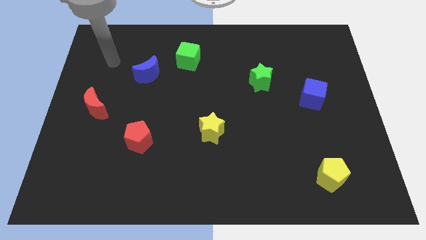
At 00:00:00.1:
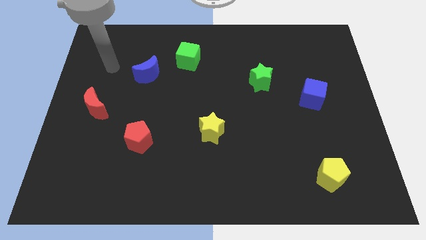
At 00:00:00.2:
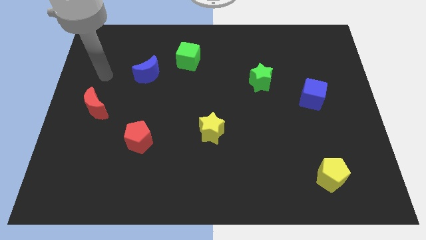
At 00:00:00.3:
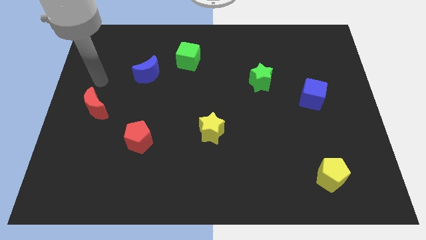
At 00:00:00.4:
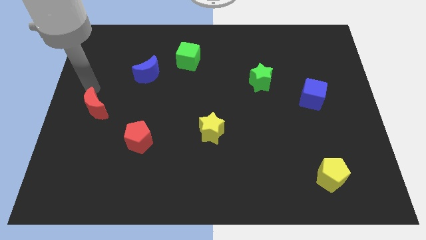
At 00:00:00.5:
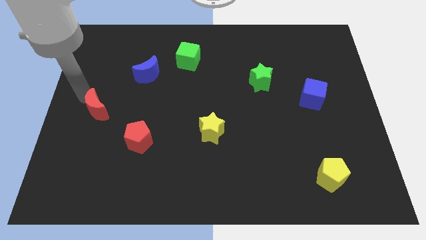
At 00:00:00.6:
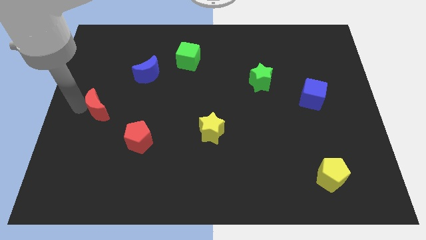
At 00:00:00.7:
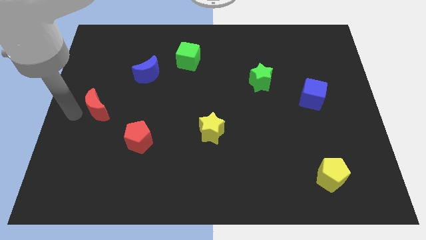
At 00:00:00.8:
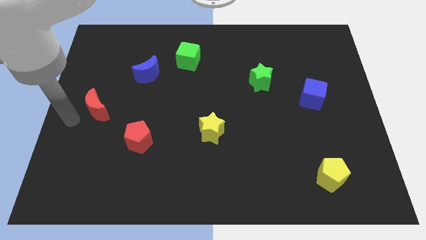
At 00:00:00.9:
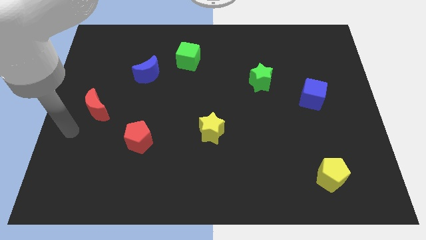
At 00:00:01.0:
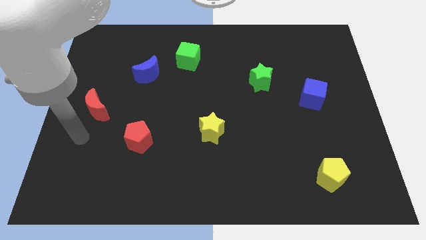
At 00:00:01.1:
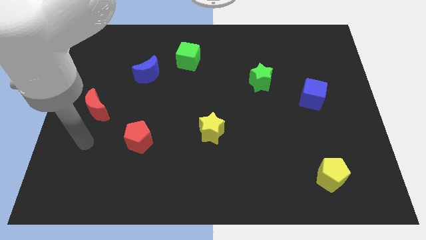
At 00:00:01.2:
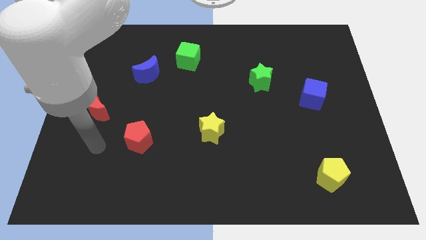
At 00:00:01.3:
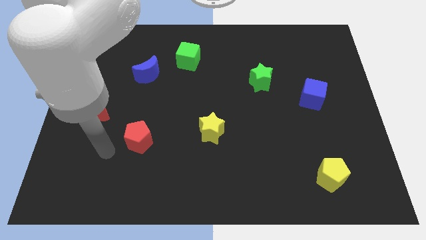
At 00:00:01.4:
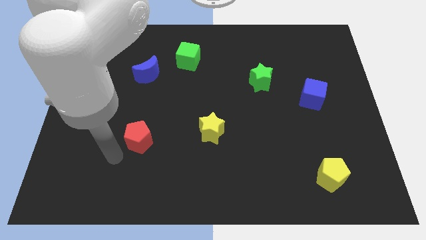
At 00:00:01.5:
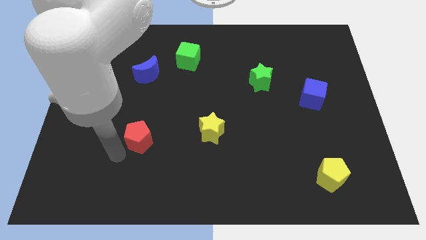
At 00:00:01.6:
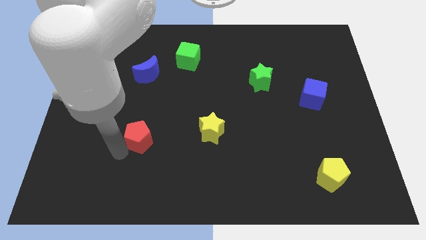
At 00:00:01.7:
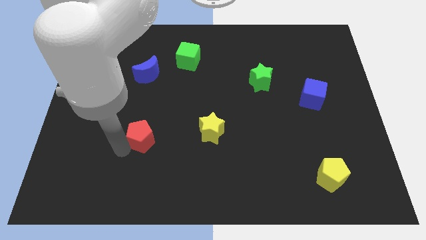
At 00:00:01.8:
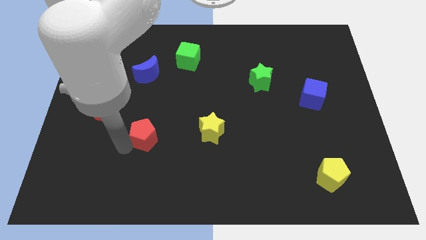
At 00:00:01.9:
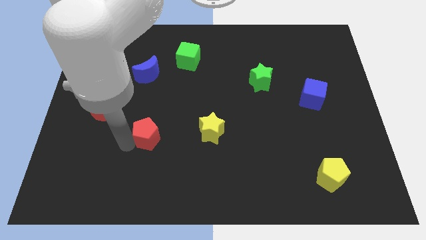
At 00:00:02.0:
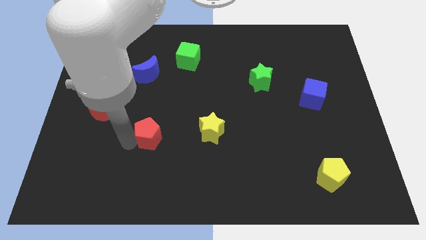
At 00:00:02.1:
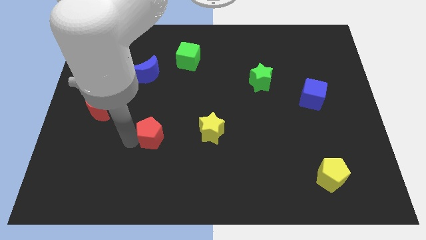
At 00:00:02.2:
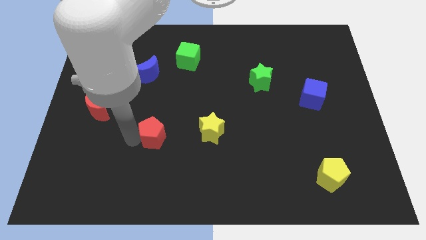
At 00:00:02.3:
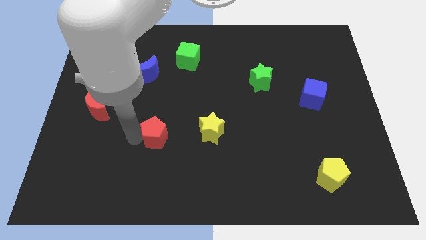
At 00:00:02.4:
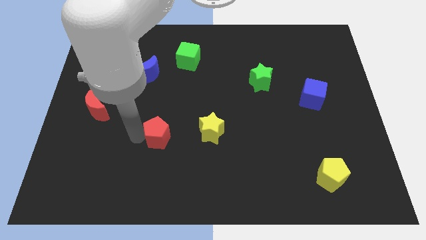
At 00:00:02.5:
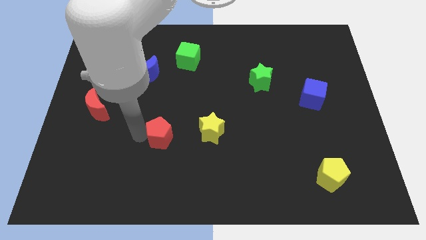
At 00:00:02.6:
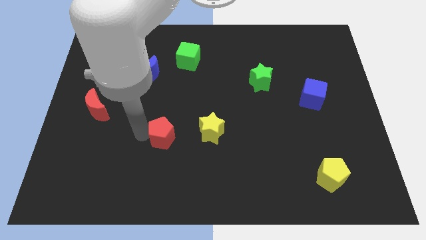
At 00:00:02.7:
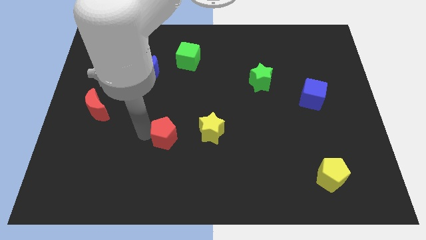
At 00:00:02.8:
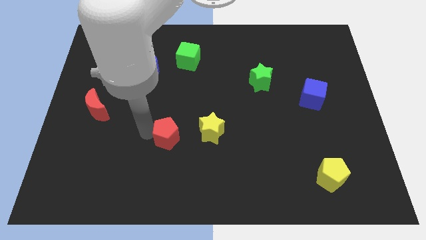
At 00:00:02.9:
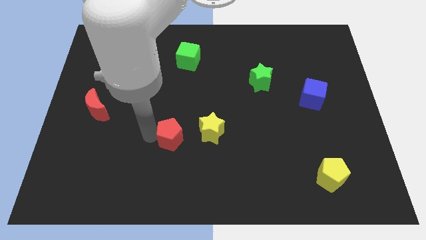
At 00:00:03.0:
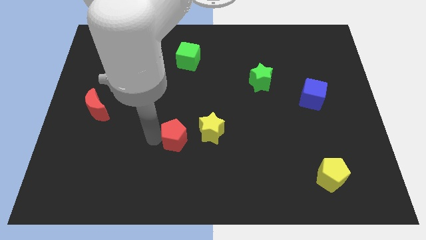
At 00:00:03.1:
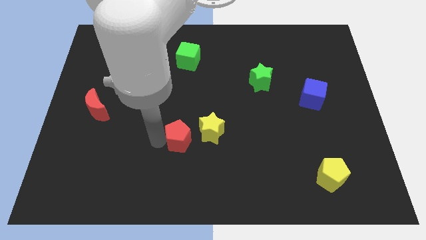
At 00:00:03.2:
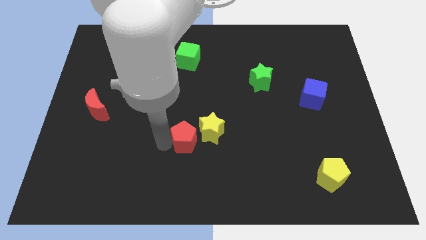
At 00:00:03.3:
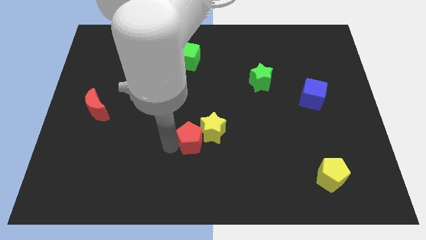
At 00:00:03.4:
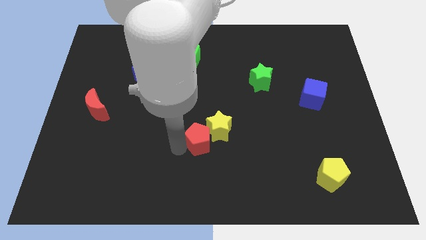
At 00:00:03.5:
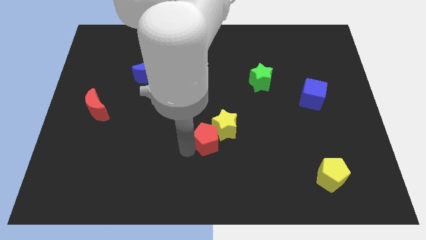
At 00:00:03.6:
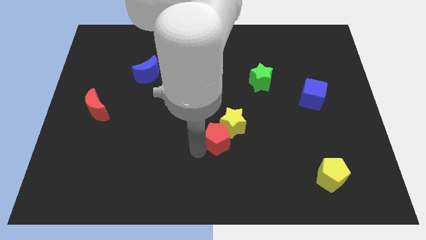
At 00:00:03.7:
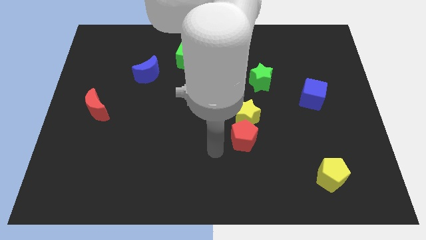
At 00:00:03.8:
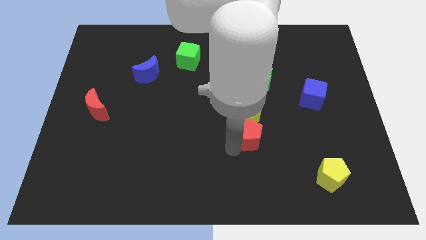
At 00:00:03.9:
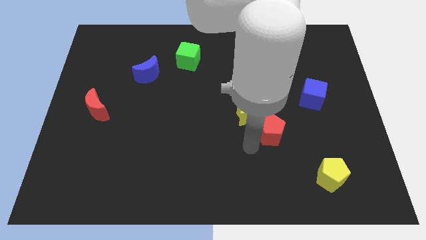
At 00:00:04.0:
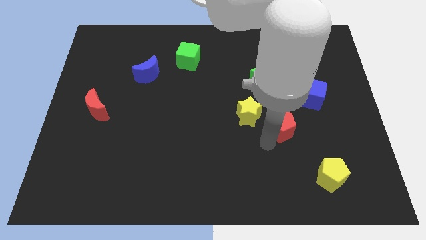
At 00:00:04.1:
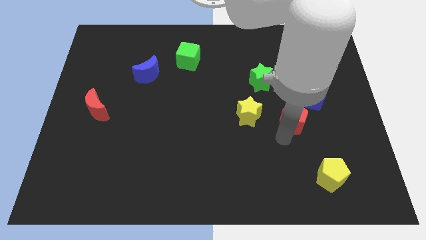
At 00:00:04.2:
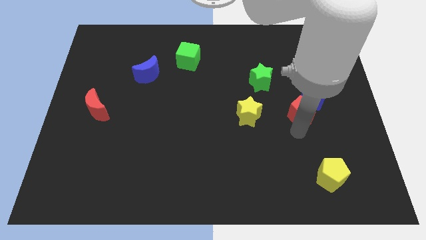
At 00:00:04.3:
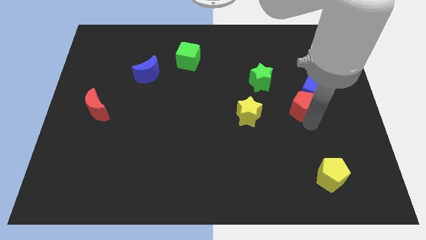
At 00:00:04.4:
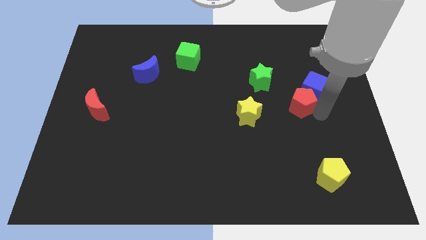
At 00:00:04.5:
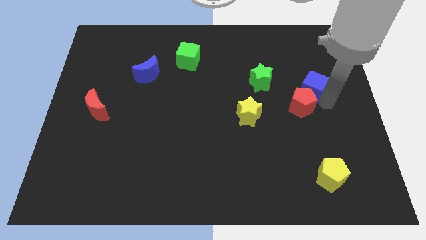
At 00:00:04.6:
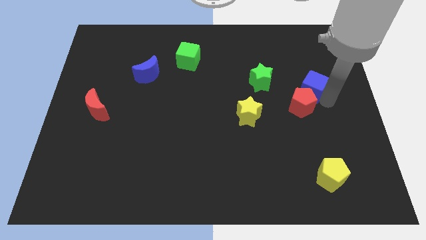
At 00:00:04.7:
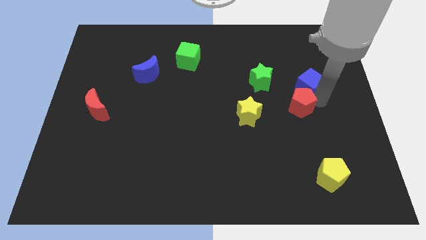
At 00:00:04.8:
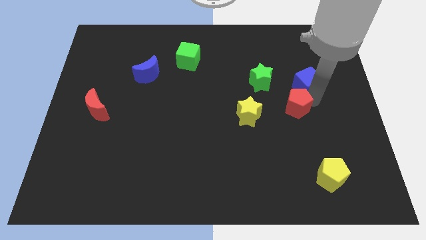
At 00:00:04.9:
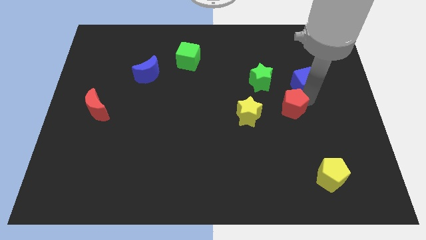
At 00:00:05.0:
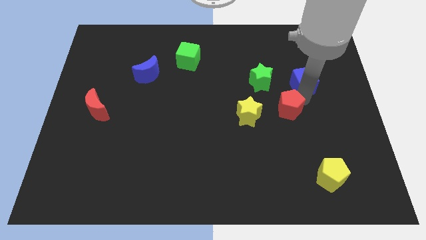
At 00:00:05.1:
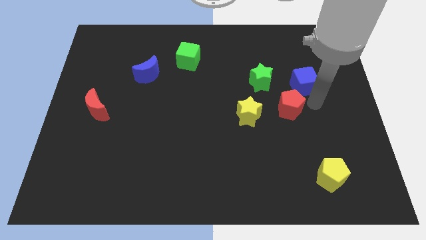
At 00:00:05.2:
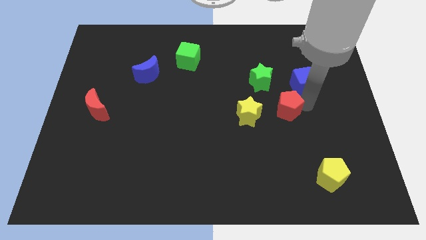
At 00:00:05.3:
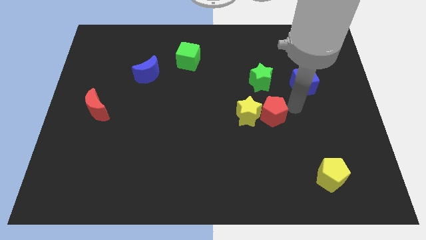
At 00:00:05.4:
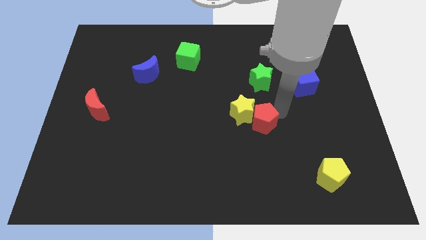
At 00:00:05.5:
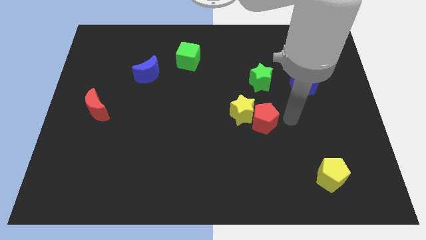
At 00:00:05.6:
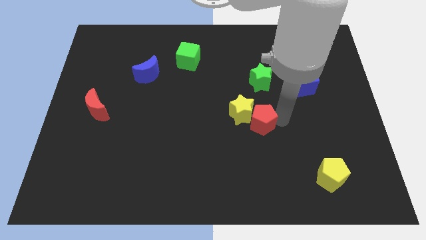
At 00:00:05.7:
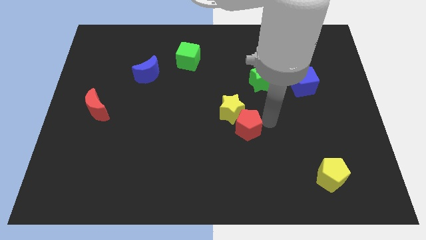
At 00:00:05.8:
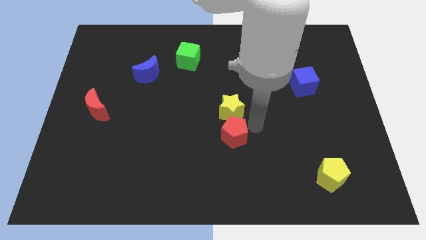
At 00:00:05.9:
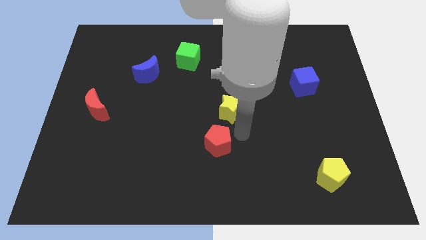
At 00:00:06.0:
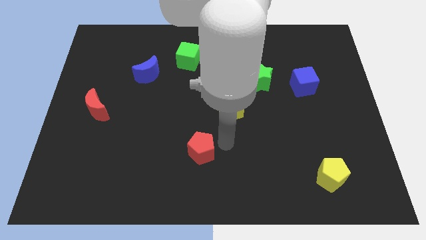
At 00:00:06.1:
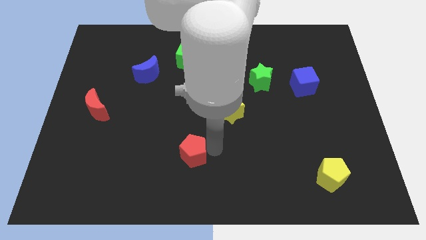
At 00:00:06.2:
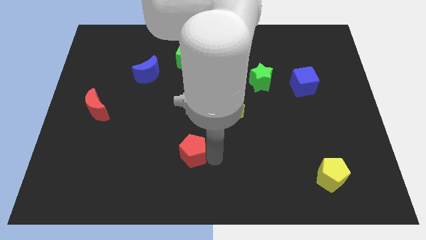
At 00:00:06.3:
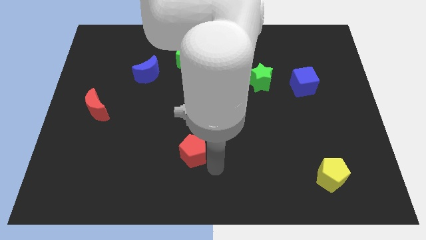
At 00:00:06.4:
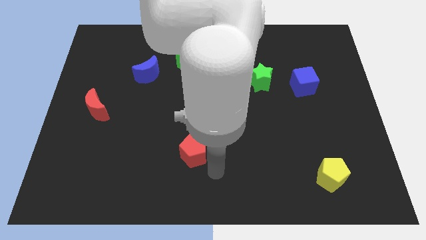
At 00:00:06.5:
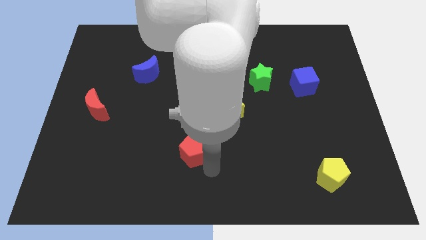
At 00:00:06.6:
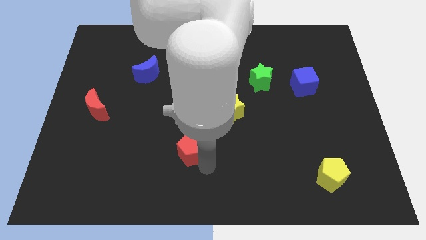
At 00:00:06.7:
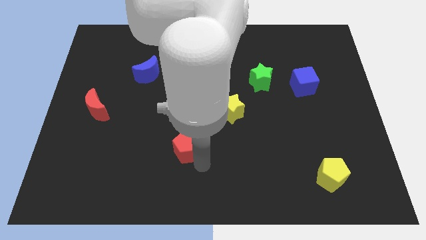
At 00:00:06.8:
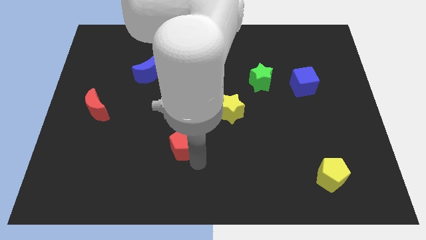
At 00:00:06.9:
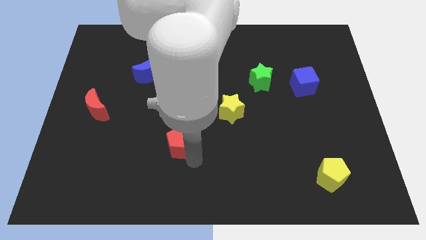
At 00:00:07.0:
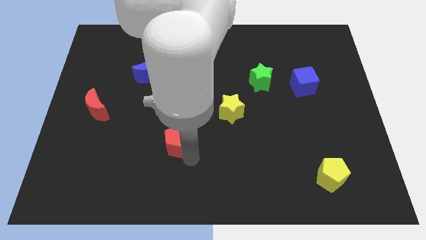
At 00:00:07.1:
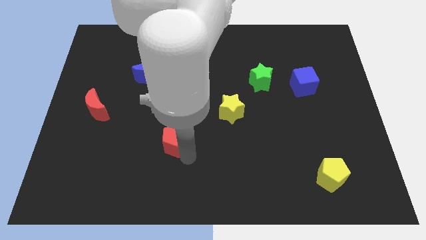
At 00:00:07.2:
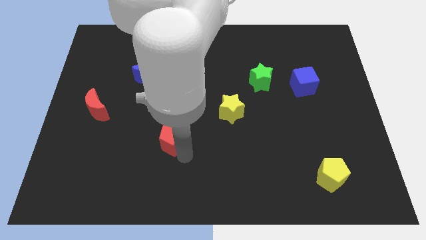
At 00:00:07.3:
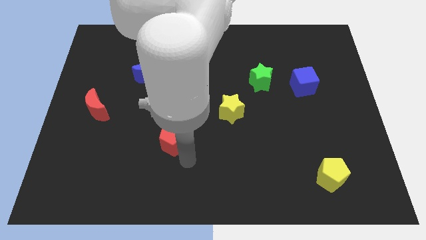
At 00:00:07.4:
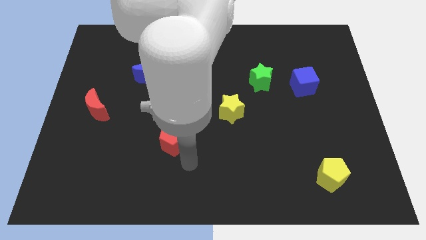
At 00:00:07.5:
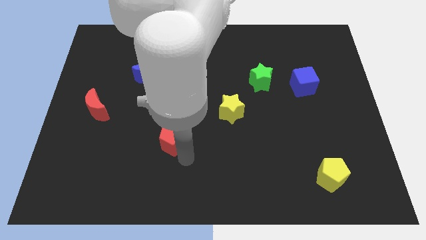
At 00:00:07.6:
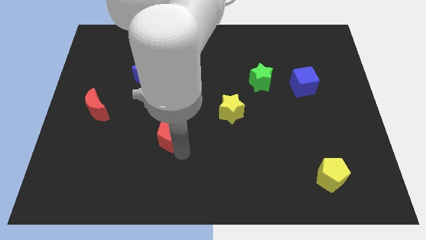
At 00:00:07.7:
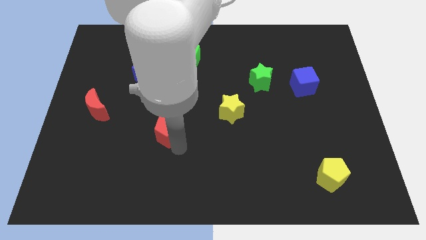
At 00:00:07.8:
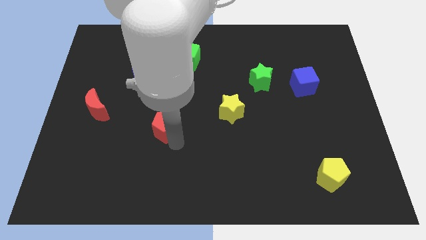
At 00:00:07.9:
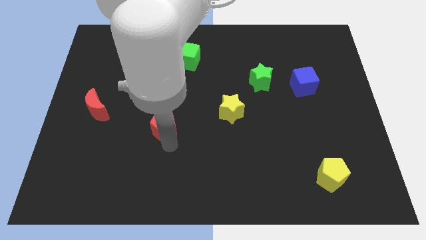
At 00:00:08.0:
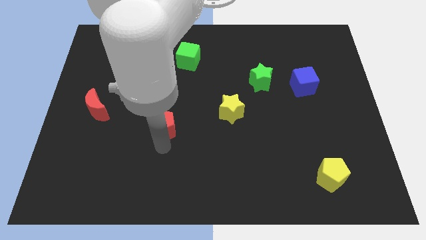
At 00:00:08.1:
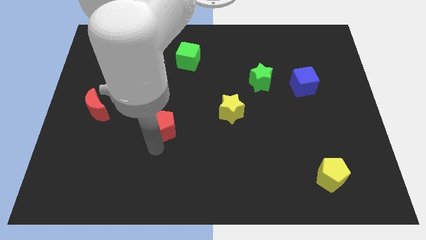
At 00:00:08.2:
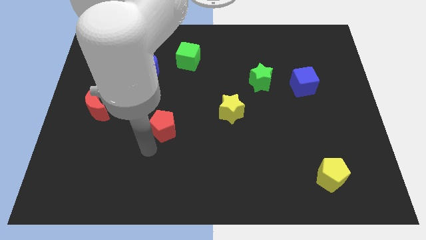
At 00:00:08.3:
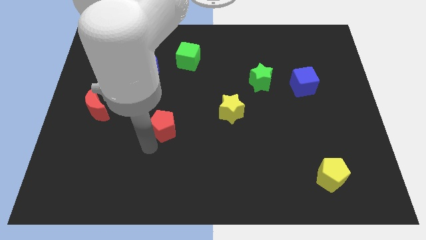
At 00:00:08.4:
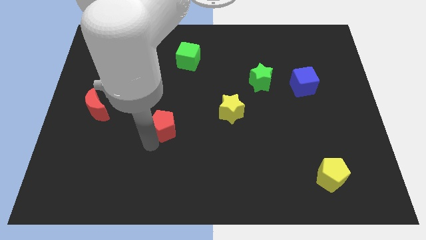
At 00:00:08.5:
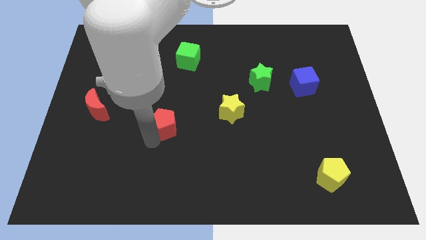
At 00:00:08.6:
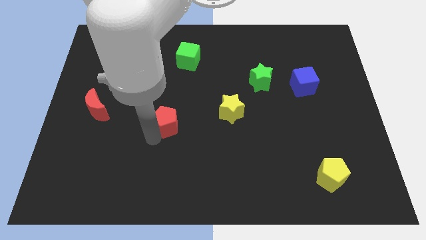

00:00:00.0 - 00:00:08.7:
slightly push the red pentagon up and then to the right
